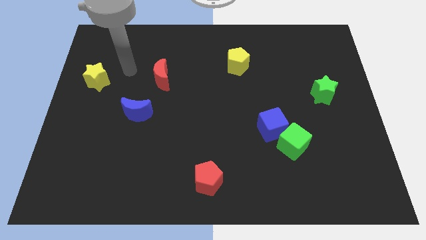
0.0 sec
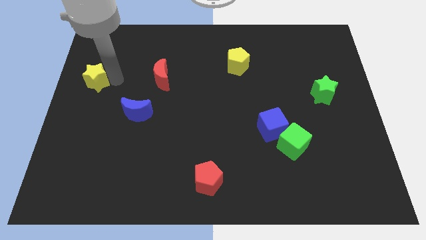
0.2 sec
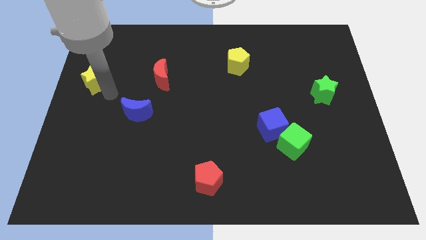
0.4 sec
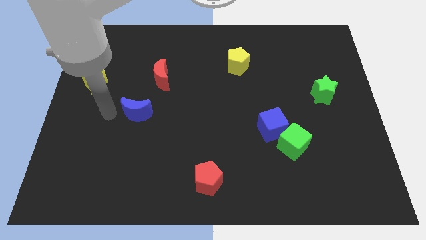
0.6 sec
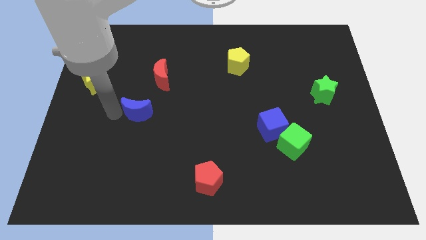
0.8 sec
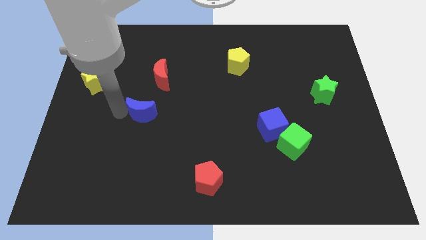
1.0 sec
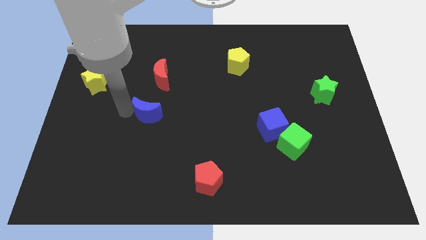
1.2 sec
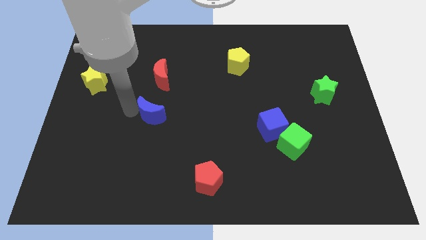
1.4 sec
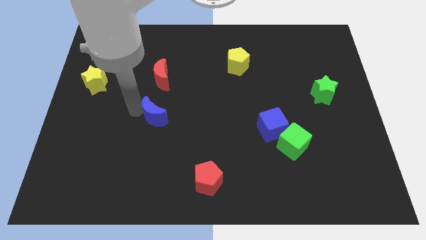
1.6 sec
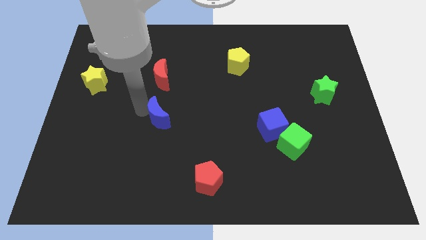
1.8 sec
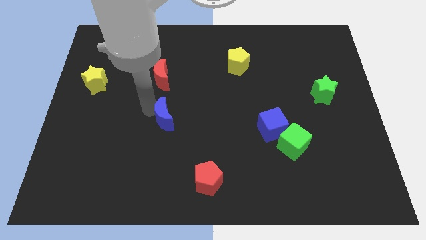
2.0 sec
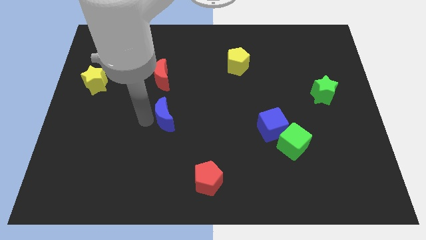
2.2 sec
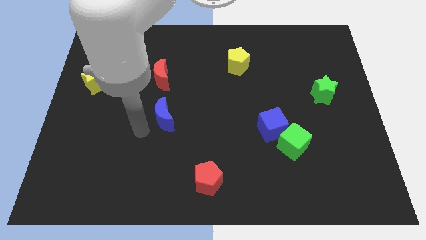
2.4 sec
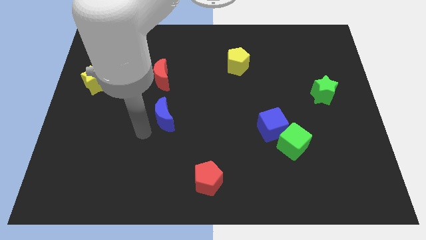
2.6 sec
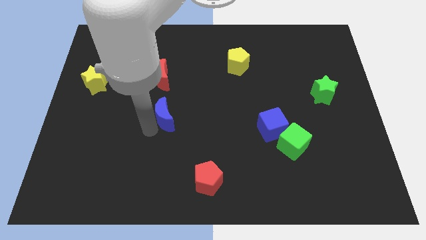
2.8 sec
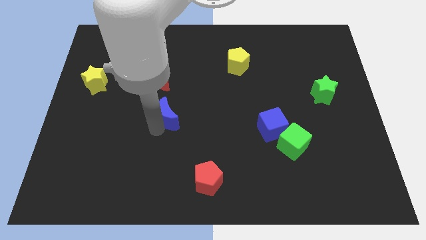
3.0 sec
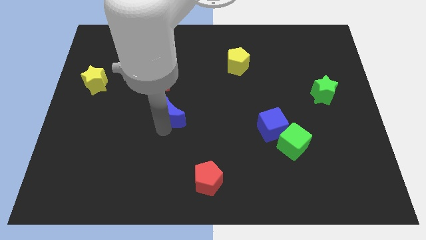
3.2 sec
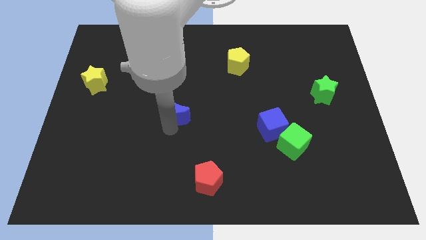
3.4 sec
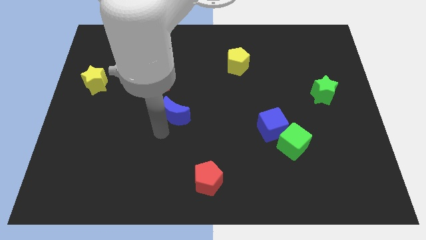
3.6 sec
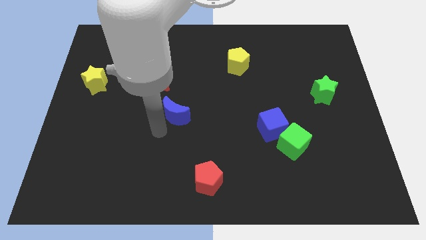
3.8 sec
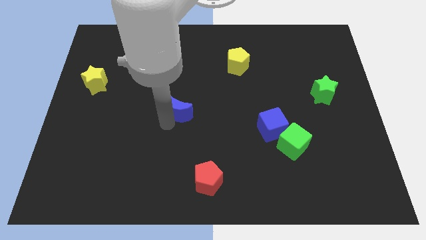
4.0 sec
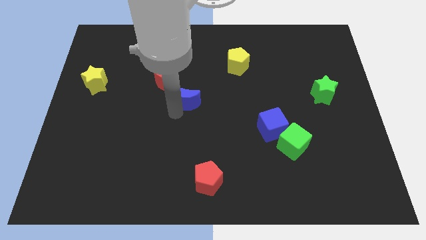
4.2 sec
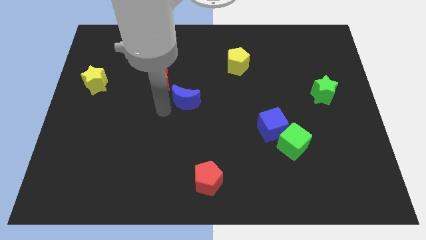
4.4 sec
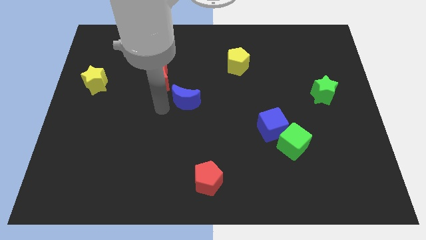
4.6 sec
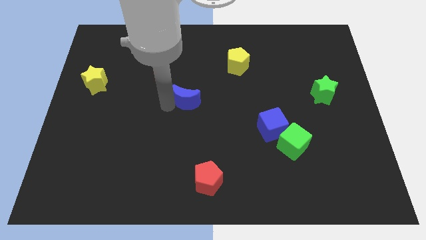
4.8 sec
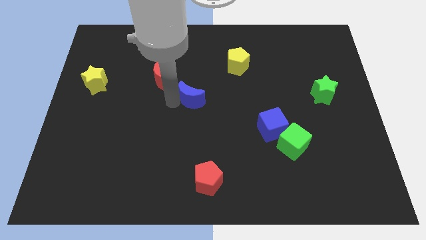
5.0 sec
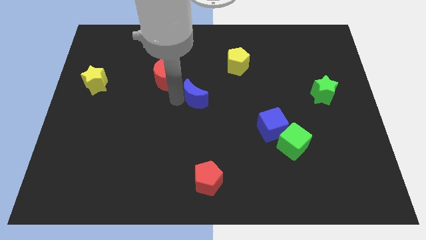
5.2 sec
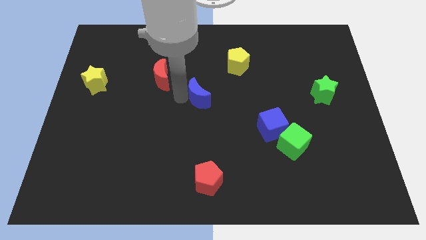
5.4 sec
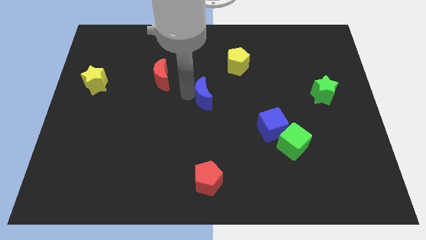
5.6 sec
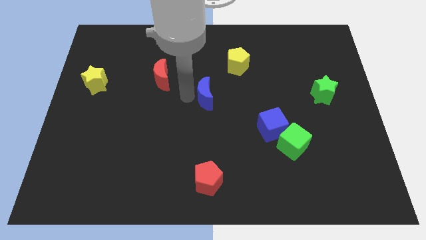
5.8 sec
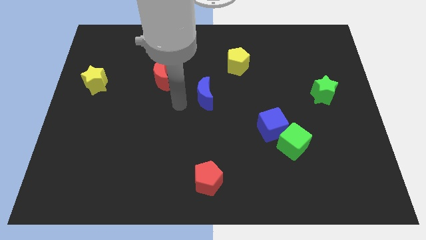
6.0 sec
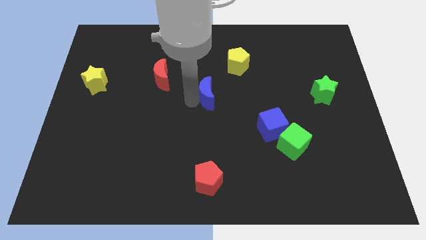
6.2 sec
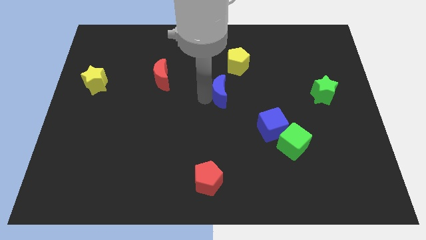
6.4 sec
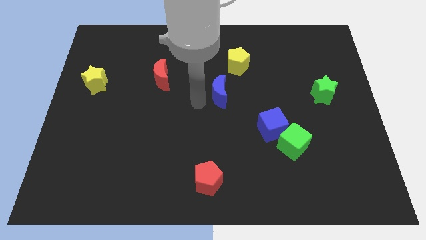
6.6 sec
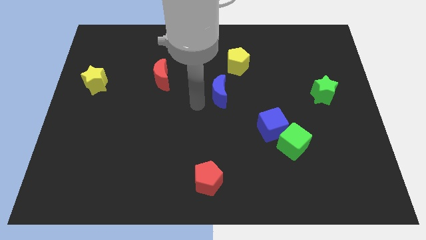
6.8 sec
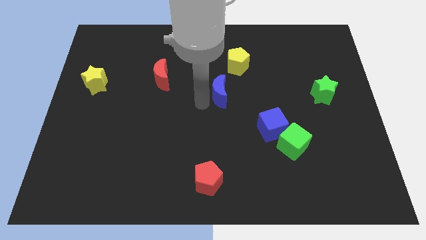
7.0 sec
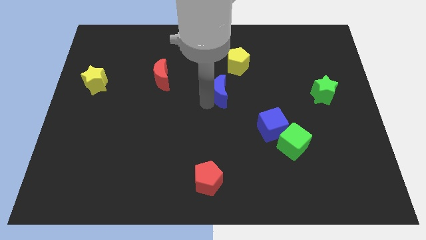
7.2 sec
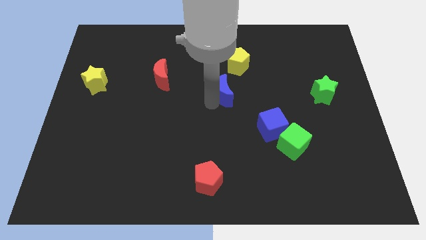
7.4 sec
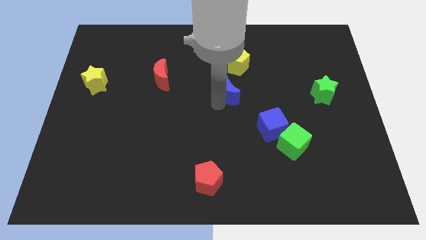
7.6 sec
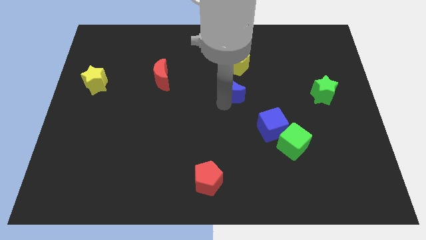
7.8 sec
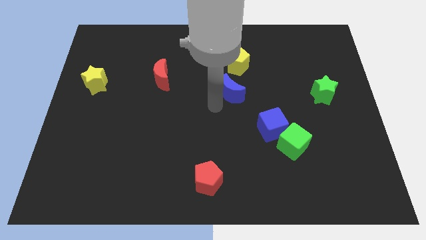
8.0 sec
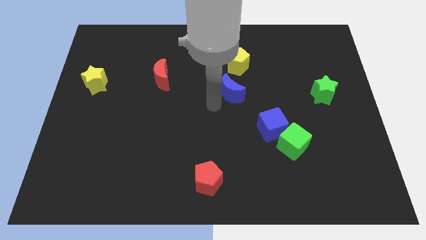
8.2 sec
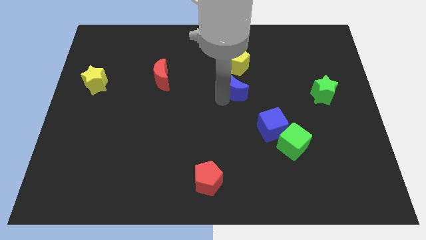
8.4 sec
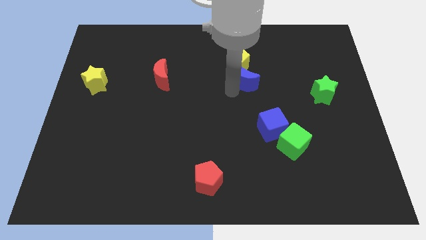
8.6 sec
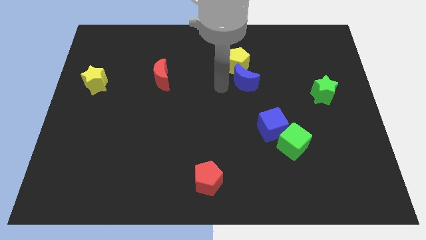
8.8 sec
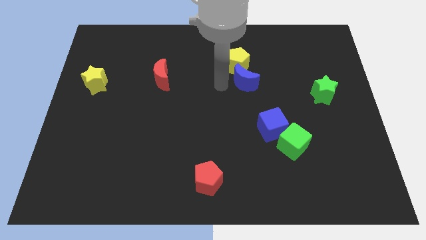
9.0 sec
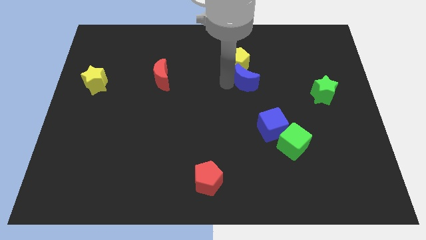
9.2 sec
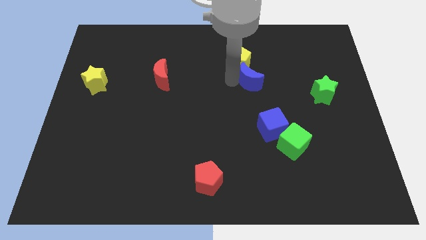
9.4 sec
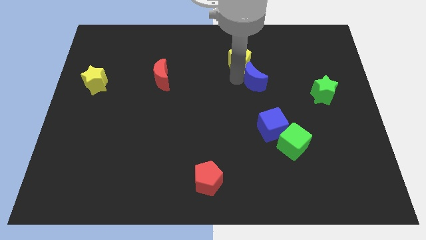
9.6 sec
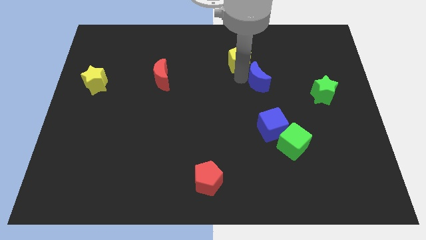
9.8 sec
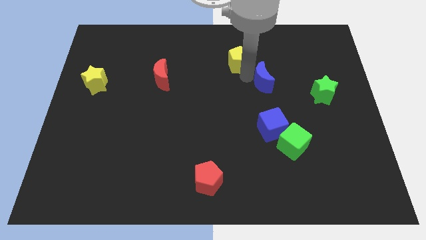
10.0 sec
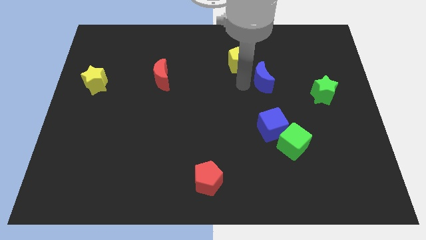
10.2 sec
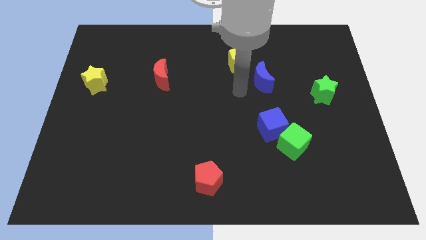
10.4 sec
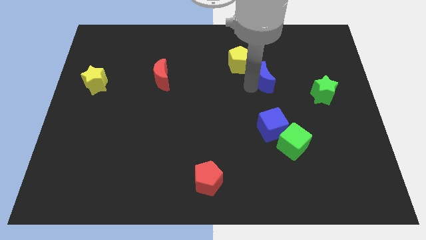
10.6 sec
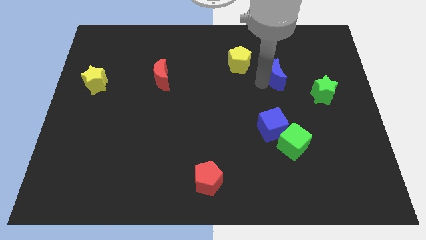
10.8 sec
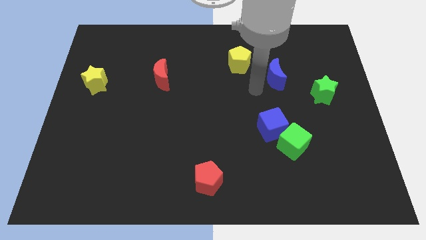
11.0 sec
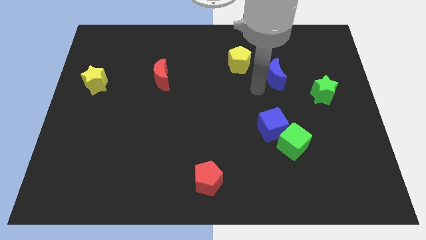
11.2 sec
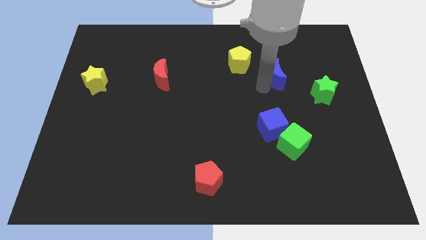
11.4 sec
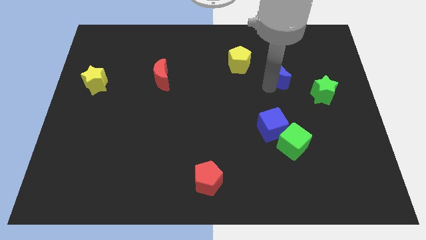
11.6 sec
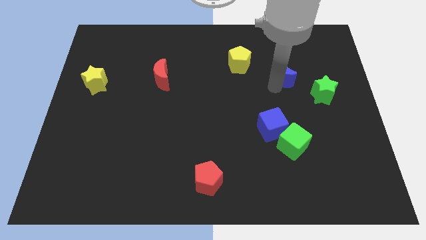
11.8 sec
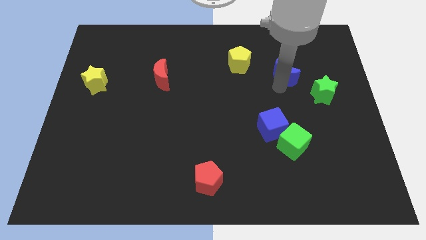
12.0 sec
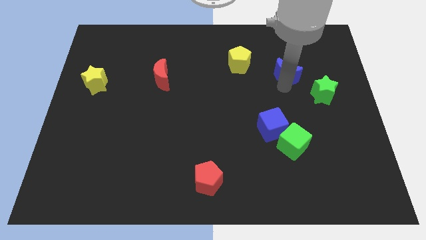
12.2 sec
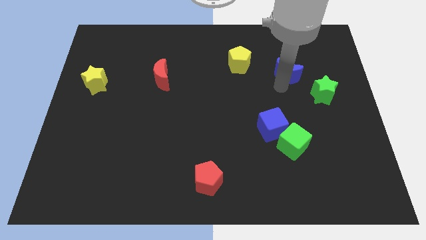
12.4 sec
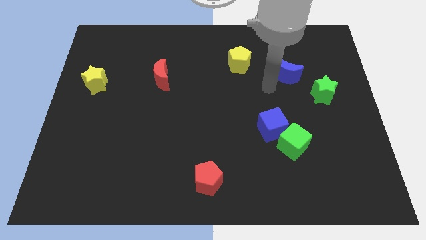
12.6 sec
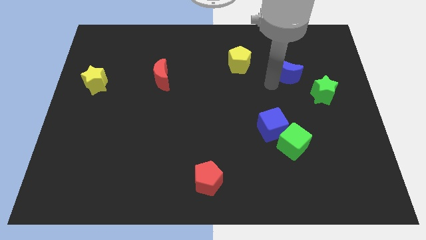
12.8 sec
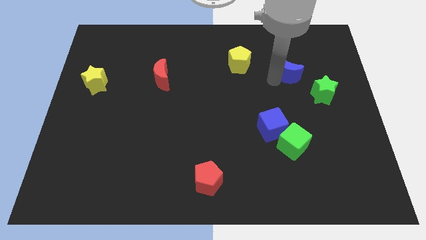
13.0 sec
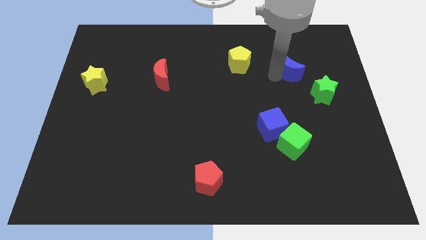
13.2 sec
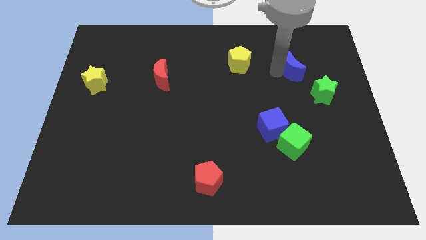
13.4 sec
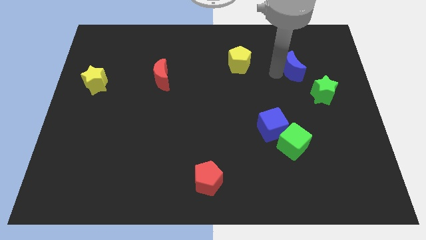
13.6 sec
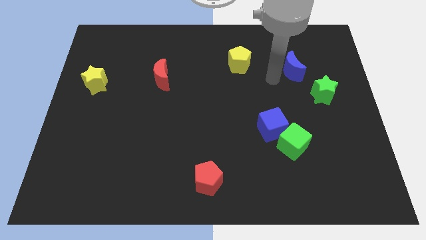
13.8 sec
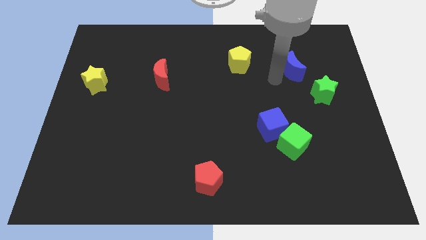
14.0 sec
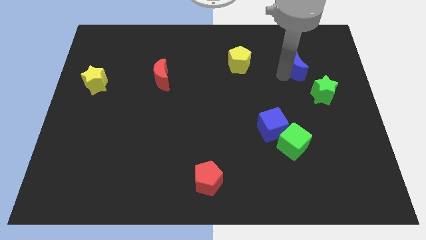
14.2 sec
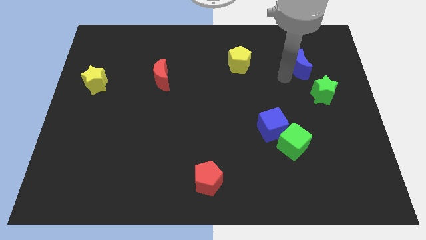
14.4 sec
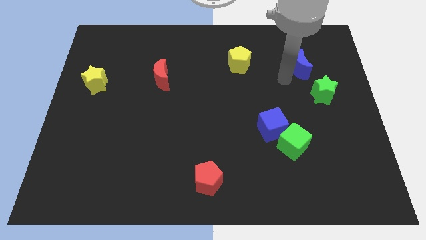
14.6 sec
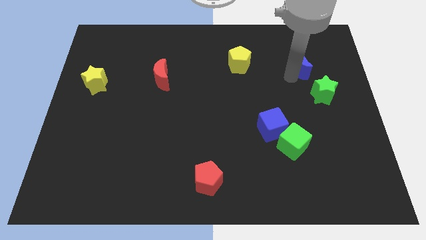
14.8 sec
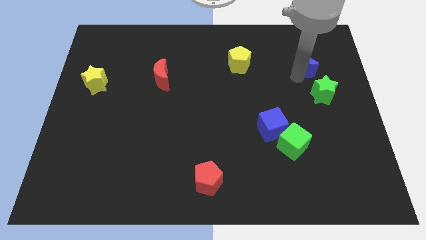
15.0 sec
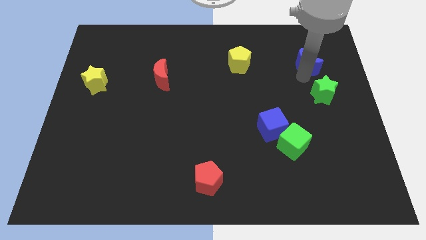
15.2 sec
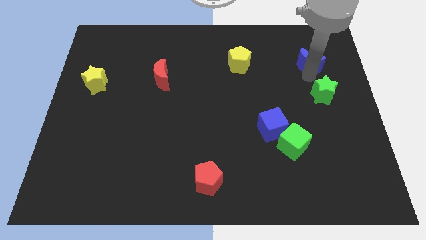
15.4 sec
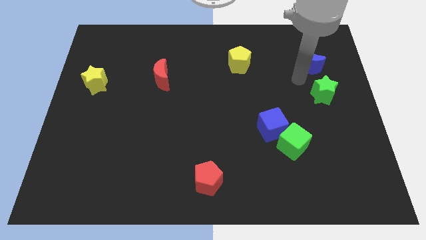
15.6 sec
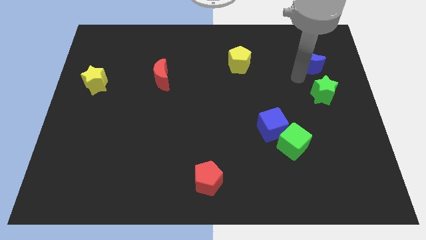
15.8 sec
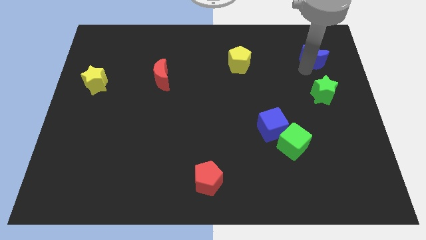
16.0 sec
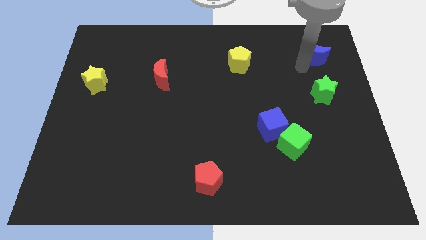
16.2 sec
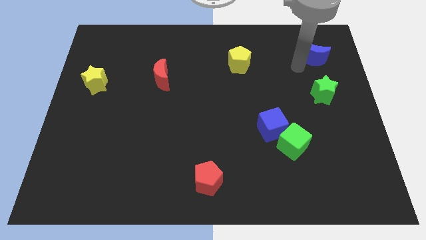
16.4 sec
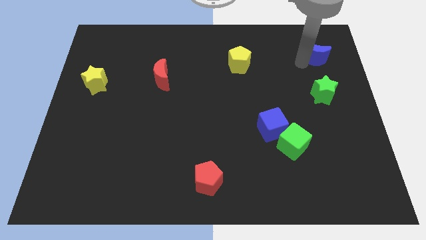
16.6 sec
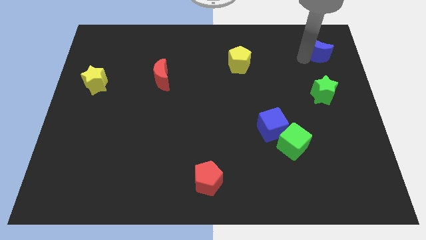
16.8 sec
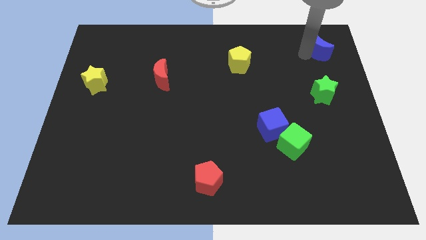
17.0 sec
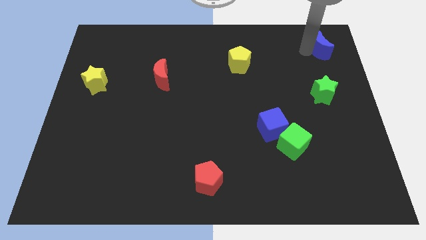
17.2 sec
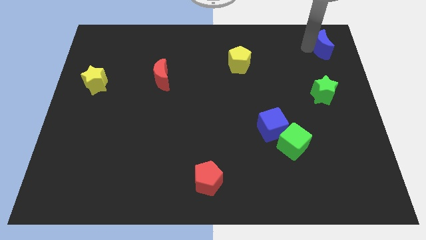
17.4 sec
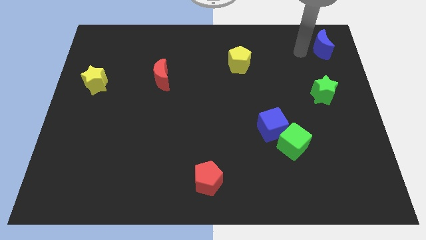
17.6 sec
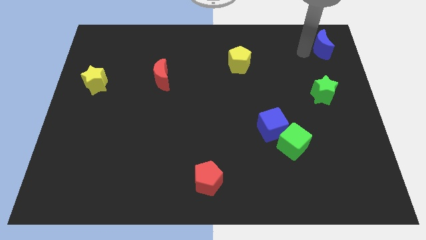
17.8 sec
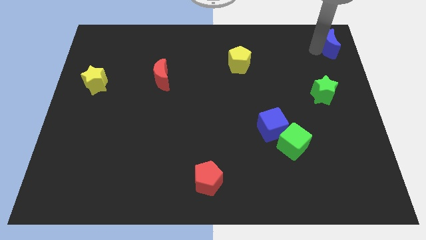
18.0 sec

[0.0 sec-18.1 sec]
move the blue moon to the top right
